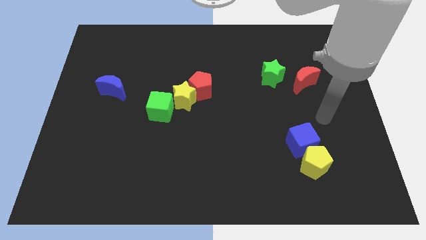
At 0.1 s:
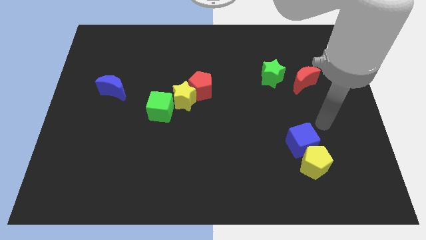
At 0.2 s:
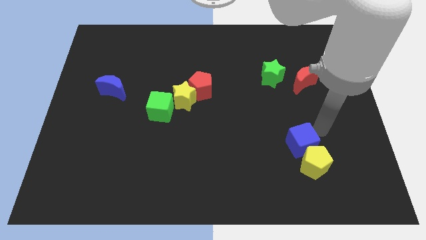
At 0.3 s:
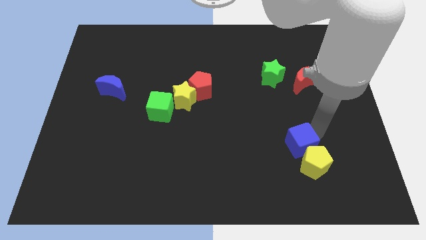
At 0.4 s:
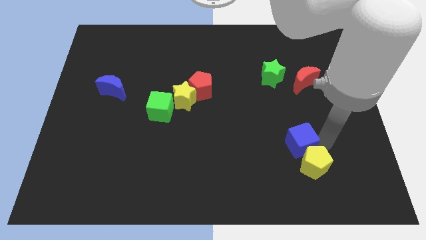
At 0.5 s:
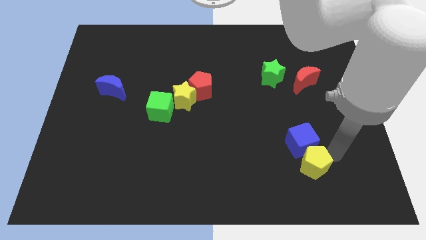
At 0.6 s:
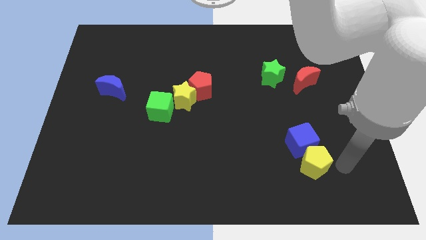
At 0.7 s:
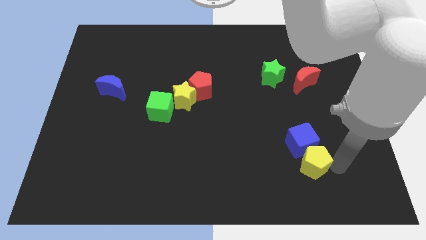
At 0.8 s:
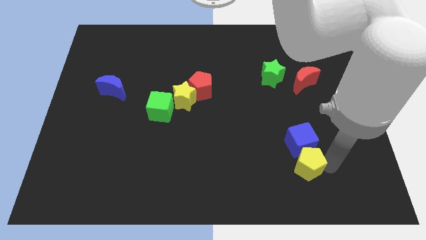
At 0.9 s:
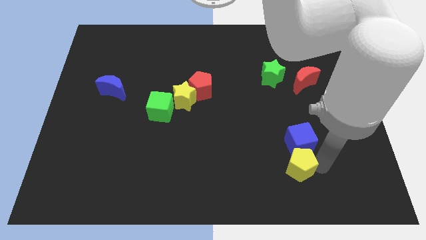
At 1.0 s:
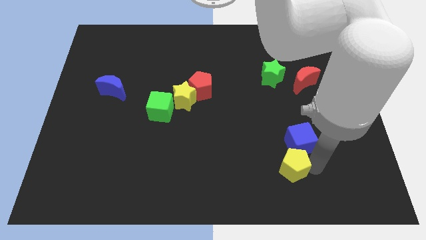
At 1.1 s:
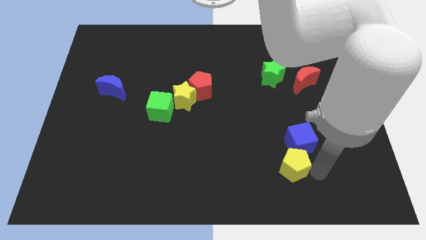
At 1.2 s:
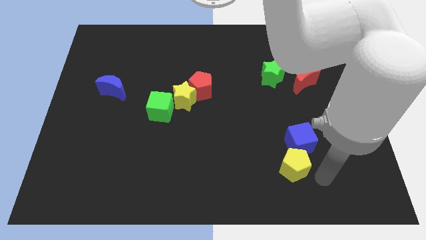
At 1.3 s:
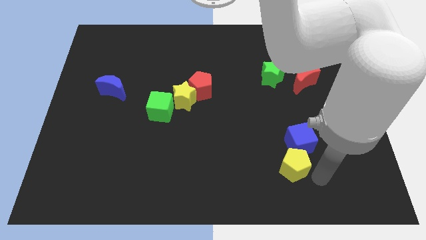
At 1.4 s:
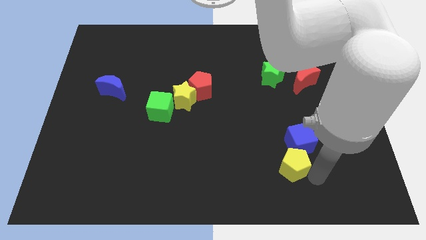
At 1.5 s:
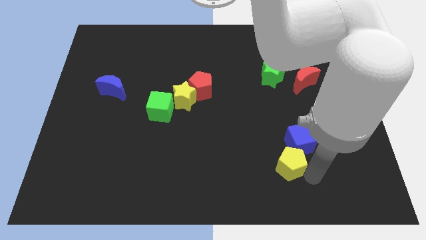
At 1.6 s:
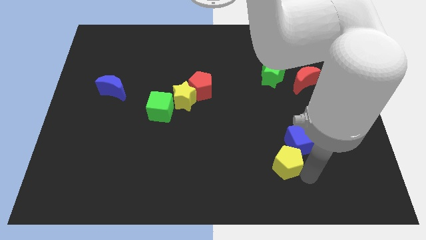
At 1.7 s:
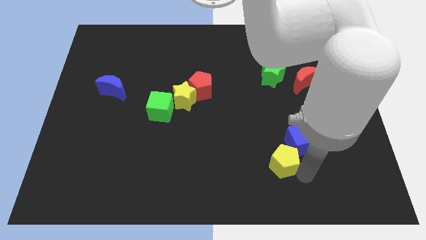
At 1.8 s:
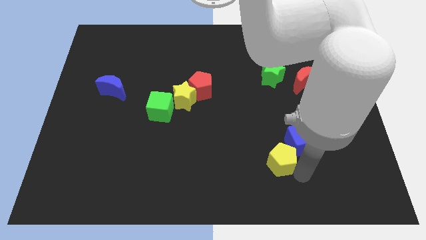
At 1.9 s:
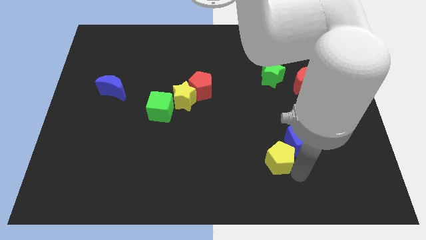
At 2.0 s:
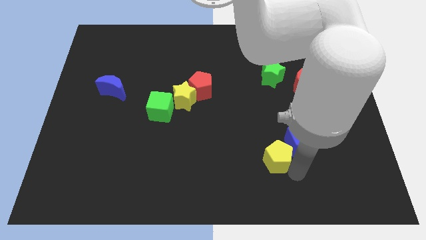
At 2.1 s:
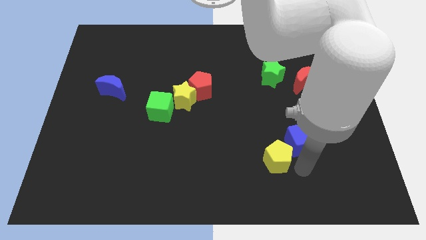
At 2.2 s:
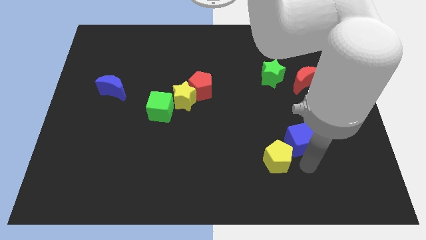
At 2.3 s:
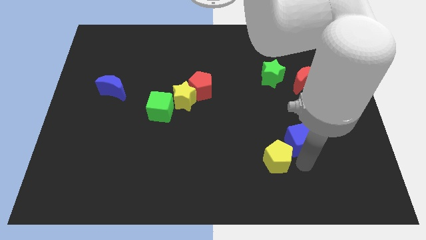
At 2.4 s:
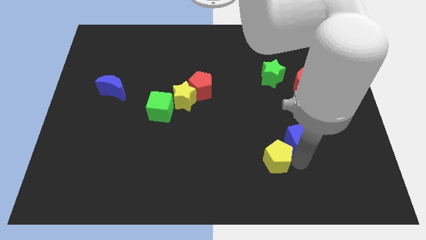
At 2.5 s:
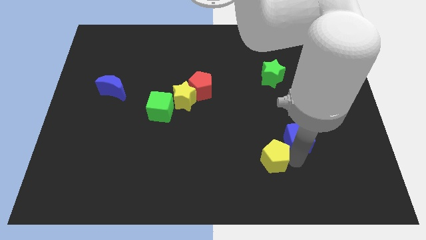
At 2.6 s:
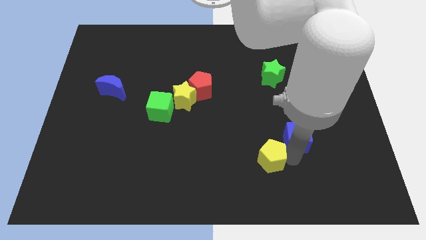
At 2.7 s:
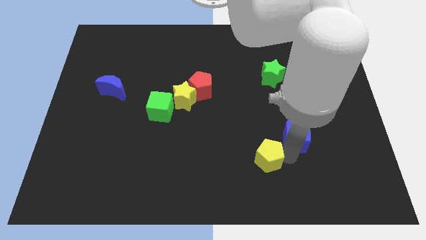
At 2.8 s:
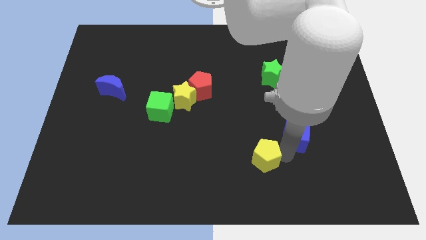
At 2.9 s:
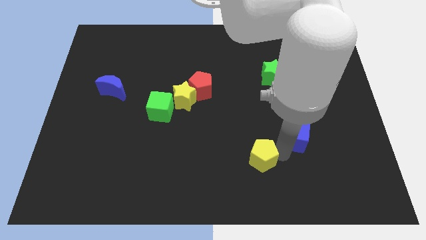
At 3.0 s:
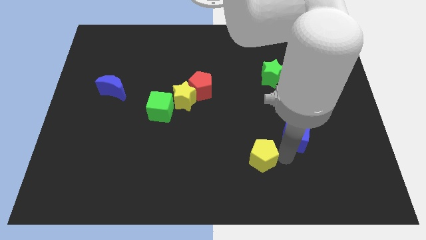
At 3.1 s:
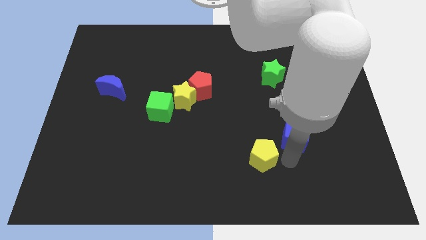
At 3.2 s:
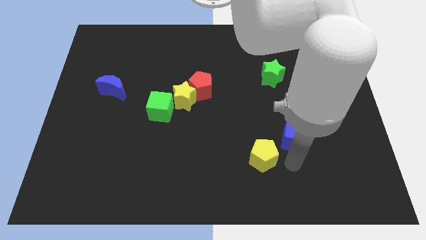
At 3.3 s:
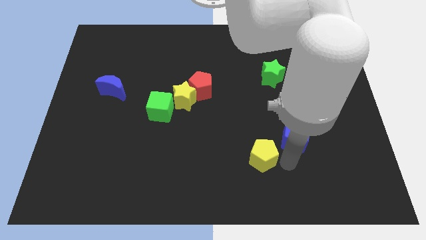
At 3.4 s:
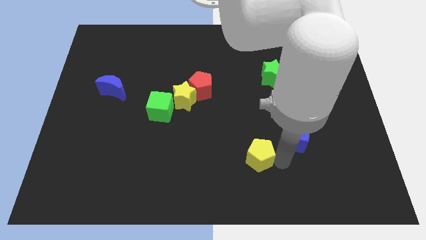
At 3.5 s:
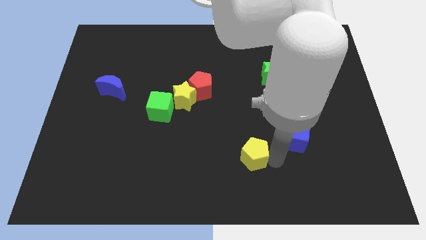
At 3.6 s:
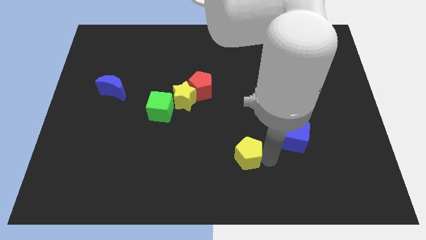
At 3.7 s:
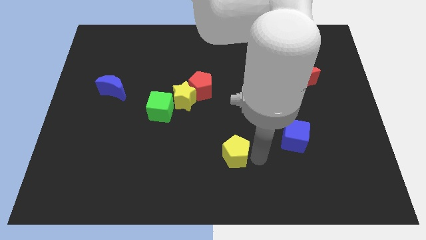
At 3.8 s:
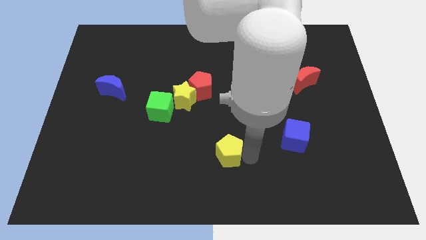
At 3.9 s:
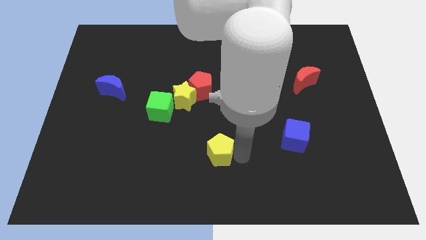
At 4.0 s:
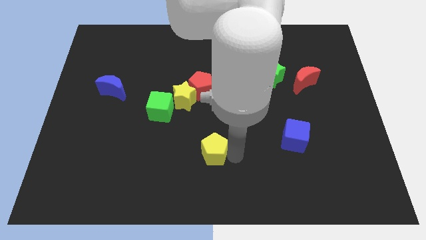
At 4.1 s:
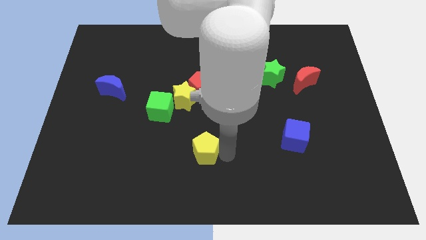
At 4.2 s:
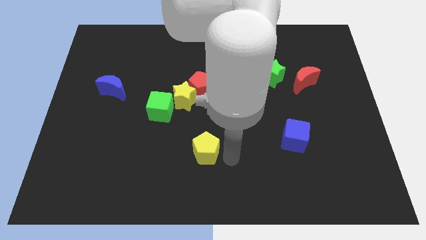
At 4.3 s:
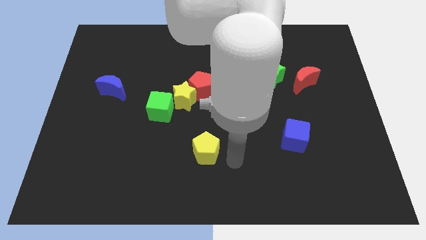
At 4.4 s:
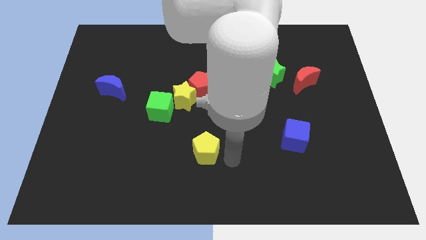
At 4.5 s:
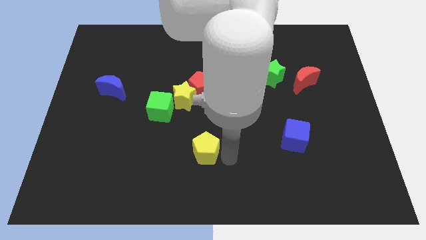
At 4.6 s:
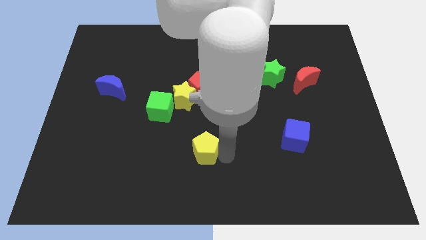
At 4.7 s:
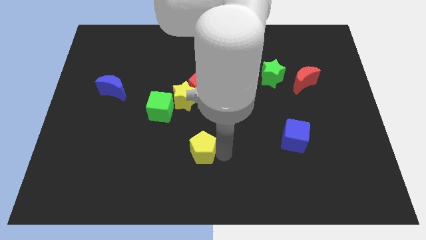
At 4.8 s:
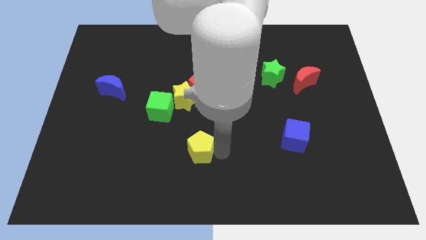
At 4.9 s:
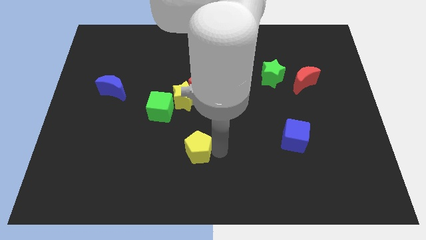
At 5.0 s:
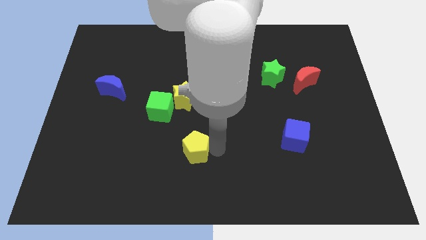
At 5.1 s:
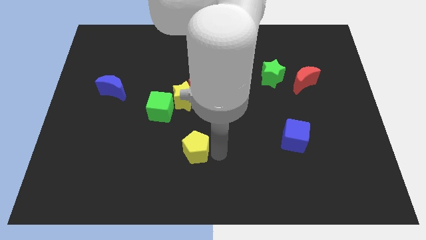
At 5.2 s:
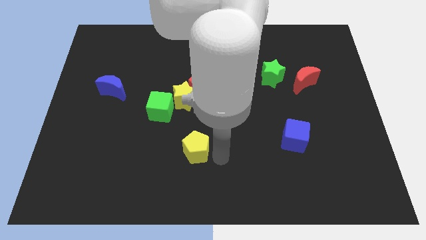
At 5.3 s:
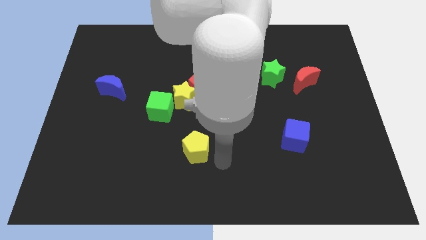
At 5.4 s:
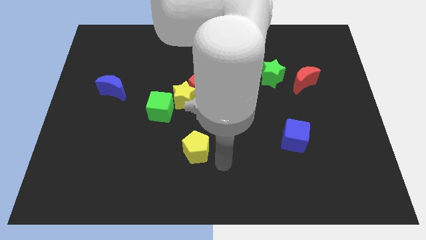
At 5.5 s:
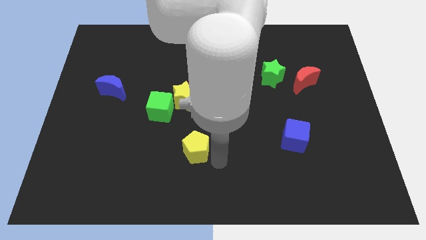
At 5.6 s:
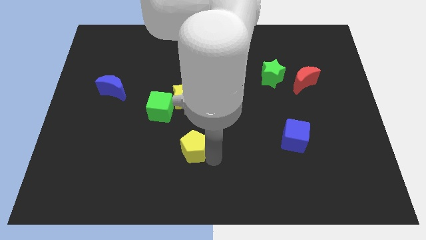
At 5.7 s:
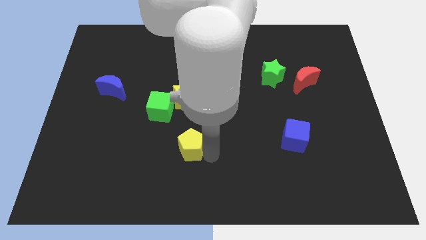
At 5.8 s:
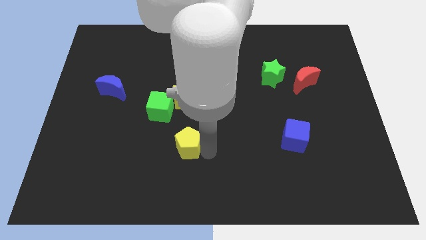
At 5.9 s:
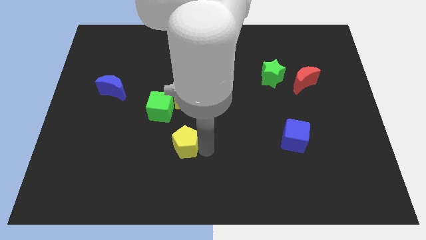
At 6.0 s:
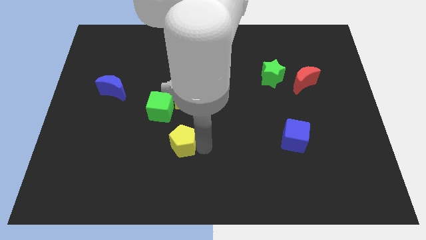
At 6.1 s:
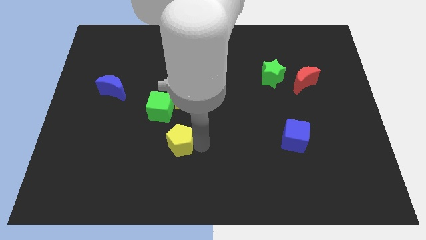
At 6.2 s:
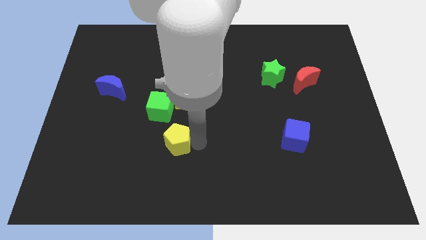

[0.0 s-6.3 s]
move the yellow pentagon to the bottom of the green cube

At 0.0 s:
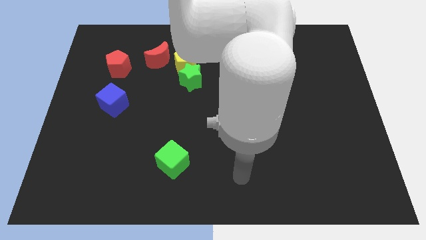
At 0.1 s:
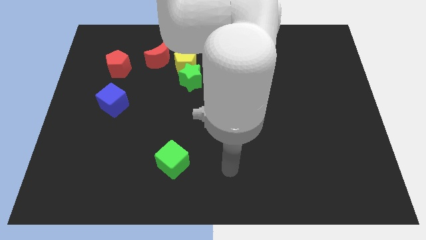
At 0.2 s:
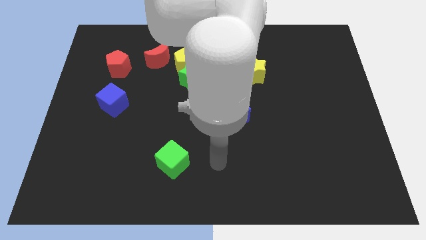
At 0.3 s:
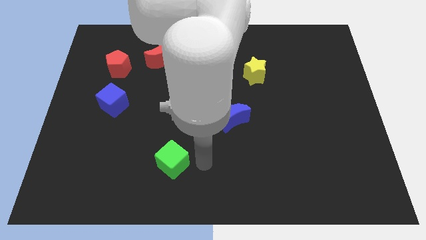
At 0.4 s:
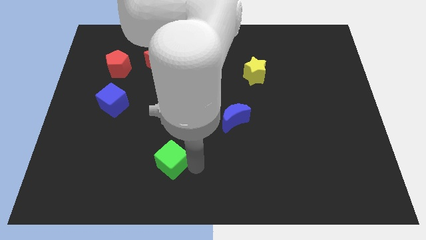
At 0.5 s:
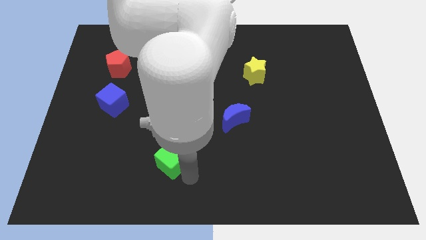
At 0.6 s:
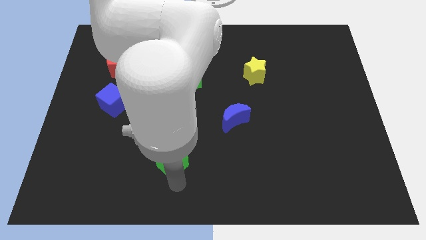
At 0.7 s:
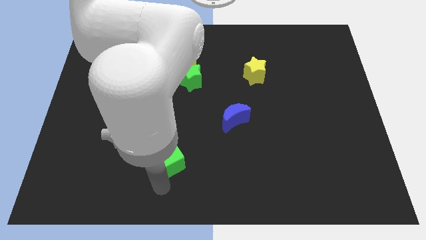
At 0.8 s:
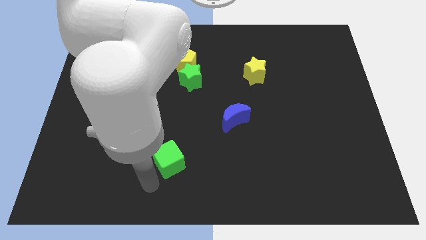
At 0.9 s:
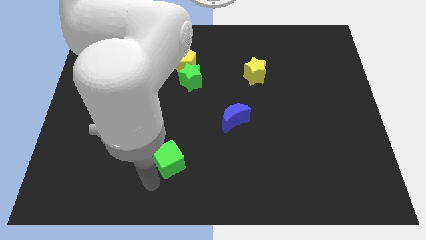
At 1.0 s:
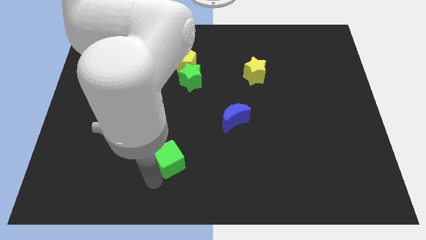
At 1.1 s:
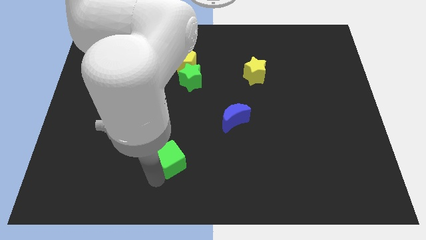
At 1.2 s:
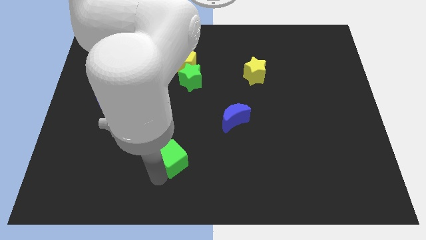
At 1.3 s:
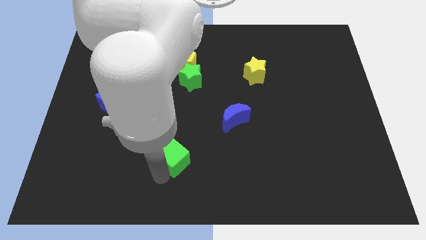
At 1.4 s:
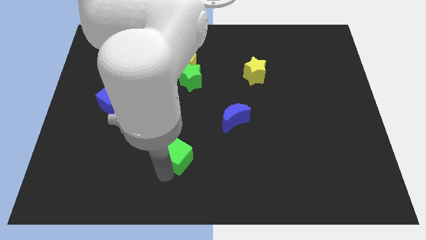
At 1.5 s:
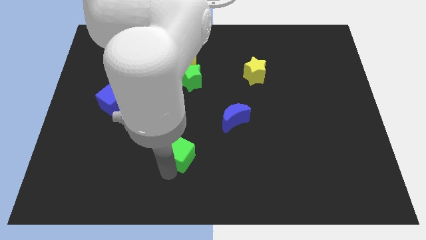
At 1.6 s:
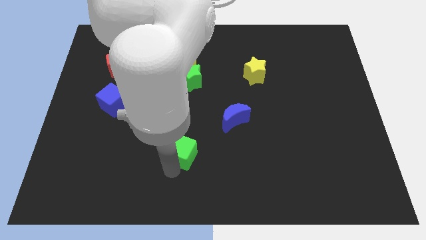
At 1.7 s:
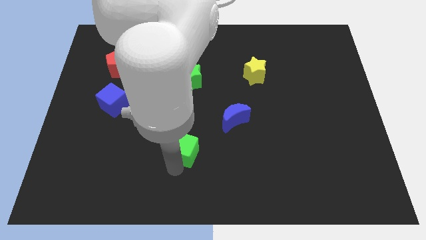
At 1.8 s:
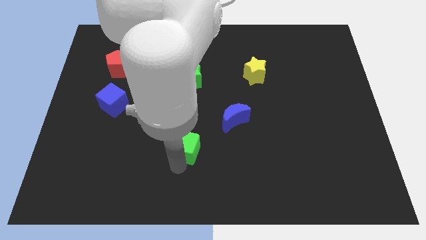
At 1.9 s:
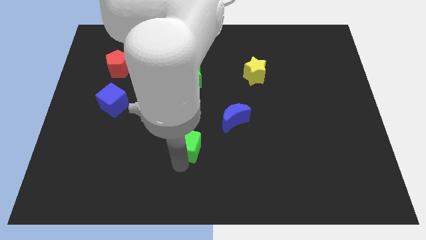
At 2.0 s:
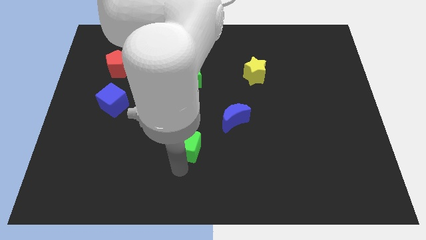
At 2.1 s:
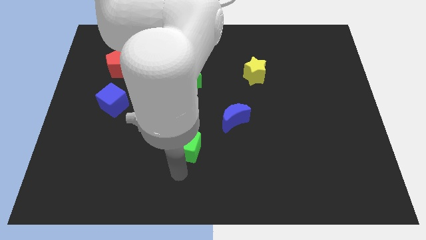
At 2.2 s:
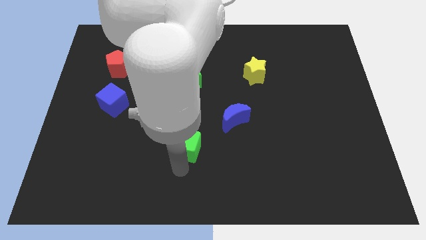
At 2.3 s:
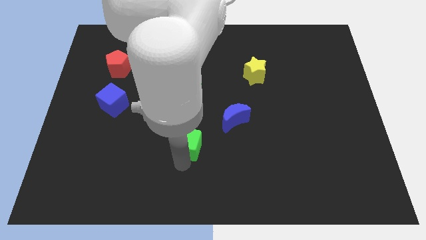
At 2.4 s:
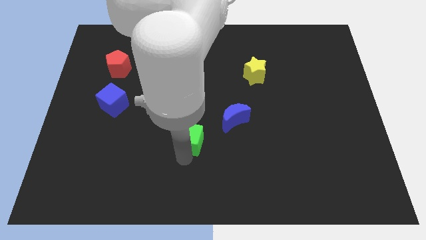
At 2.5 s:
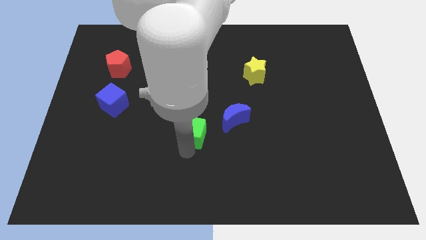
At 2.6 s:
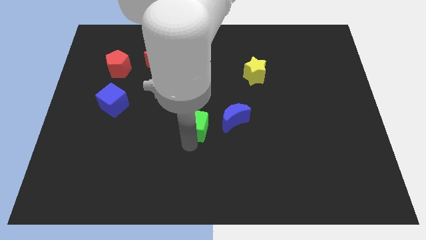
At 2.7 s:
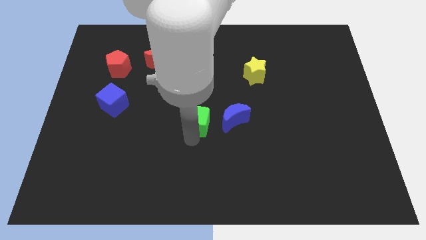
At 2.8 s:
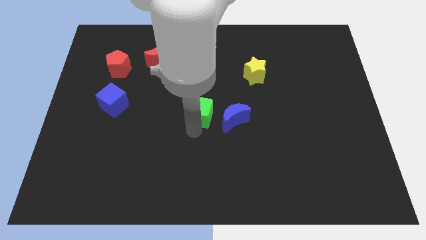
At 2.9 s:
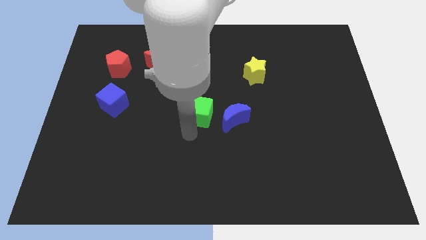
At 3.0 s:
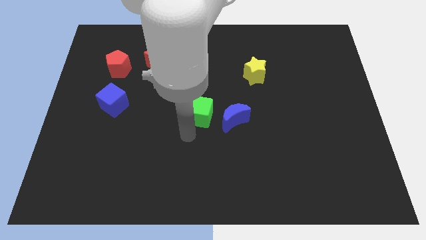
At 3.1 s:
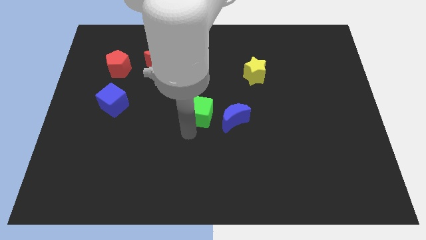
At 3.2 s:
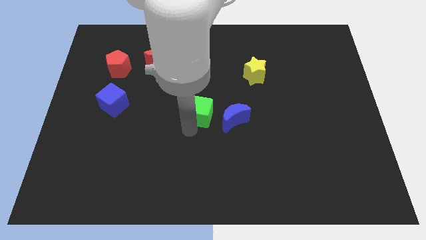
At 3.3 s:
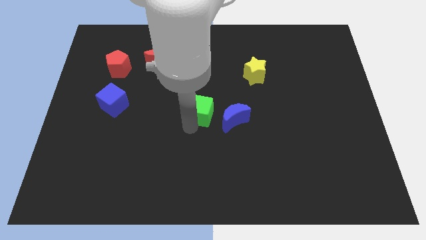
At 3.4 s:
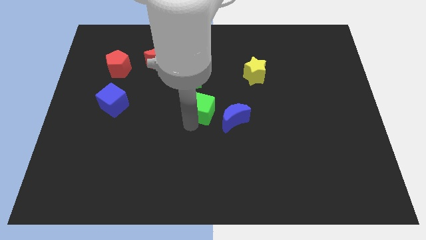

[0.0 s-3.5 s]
move the green cube diagonally down and to the right of the green star
